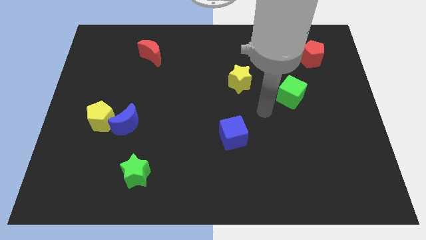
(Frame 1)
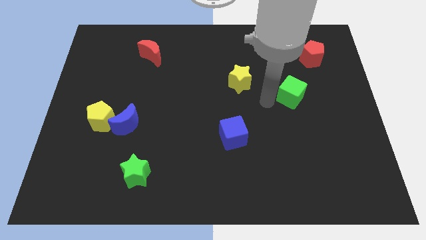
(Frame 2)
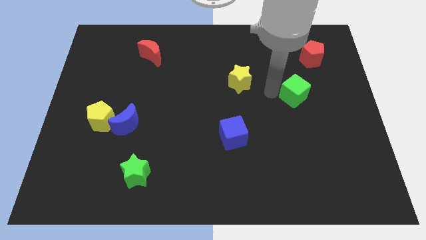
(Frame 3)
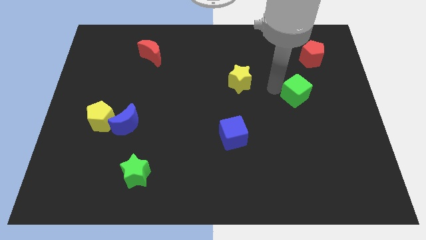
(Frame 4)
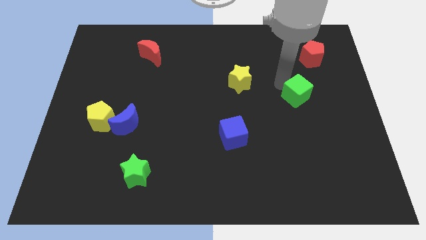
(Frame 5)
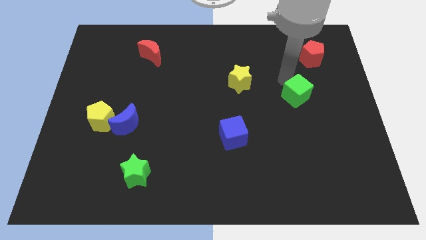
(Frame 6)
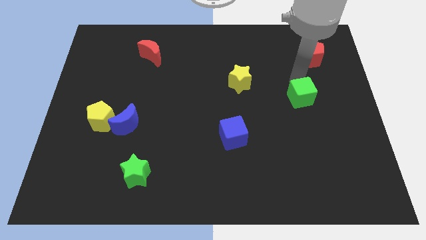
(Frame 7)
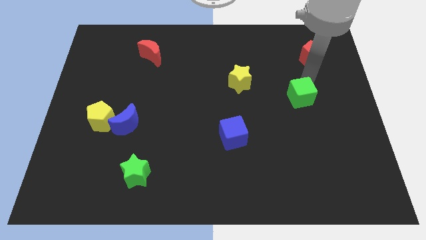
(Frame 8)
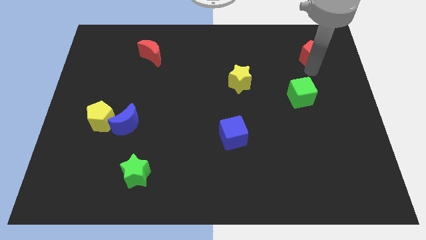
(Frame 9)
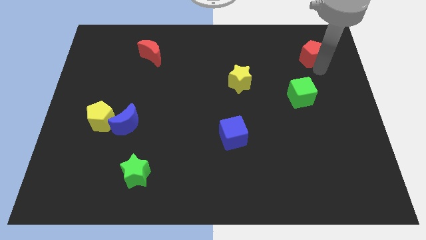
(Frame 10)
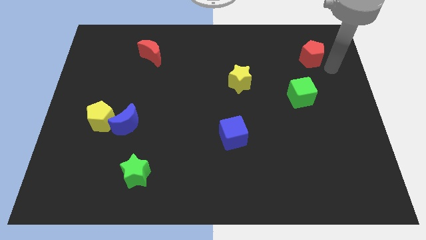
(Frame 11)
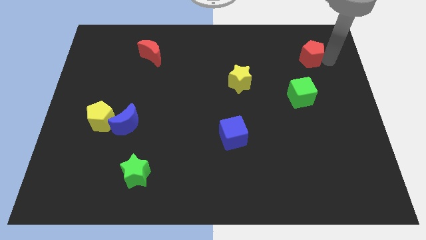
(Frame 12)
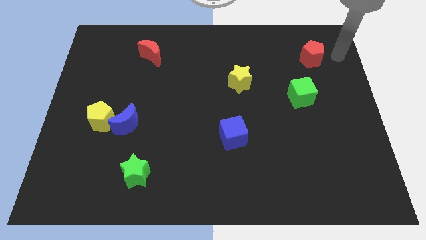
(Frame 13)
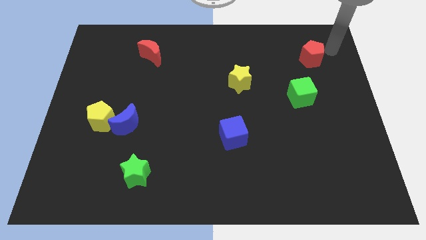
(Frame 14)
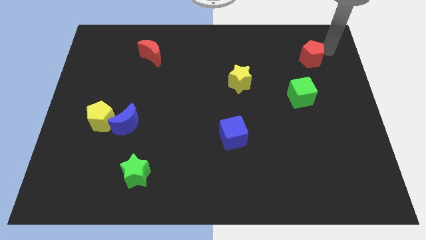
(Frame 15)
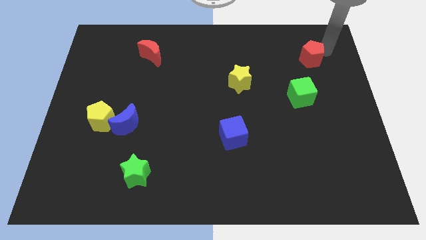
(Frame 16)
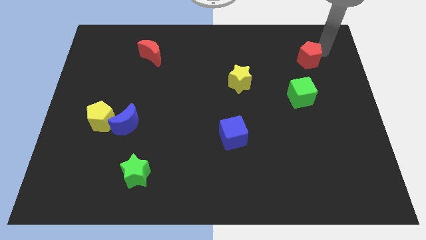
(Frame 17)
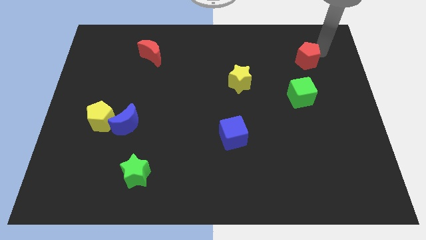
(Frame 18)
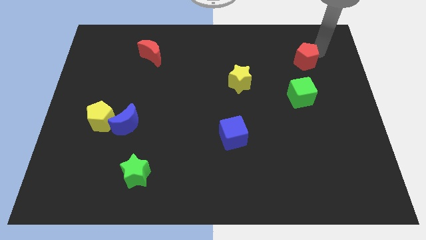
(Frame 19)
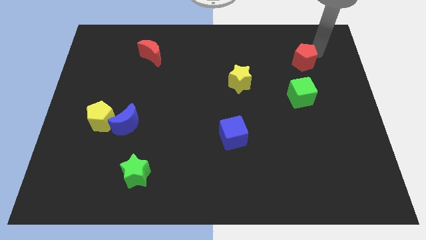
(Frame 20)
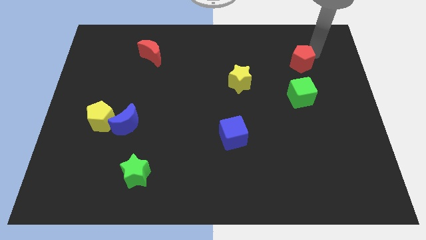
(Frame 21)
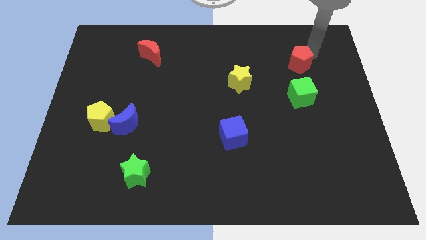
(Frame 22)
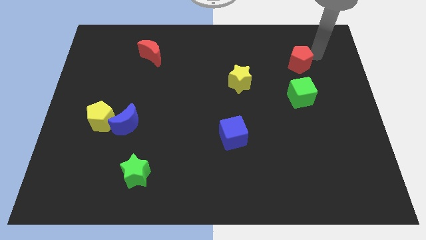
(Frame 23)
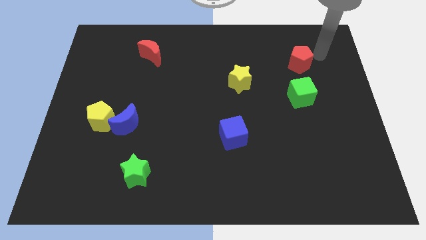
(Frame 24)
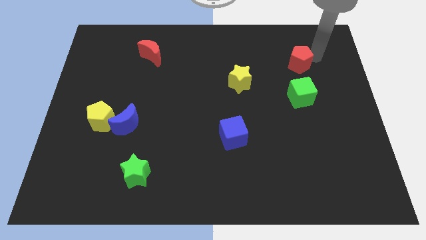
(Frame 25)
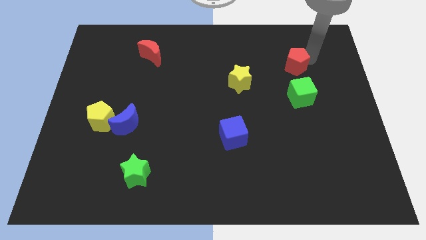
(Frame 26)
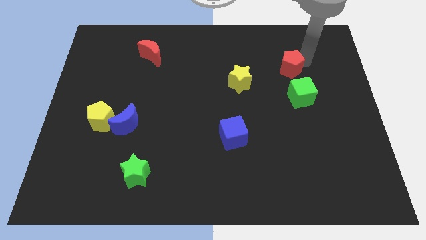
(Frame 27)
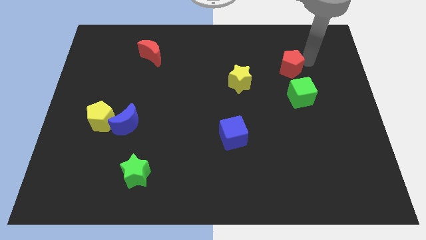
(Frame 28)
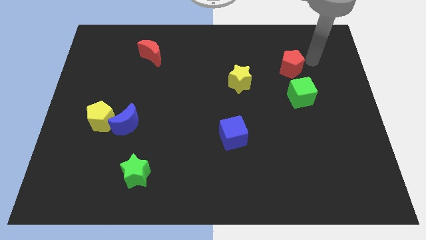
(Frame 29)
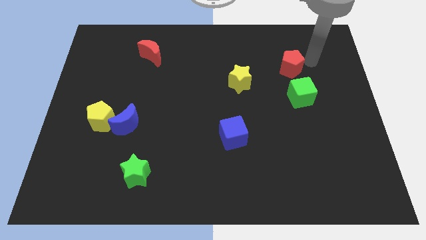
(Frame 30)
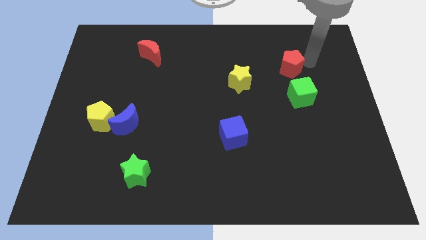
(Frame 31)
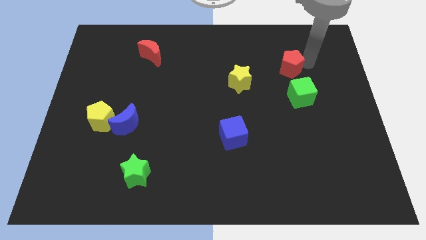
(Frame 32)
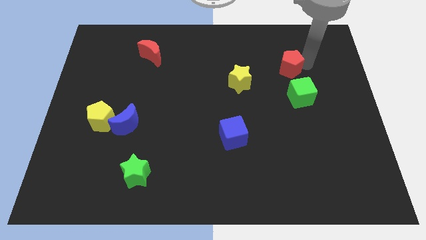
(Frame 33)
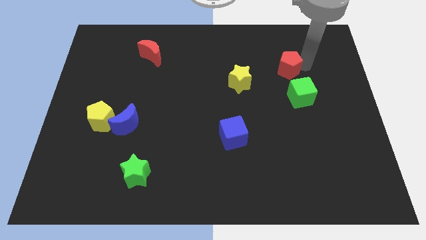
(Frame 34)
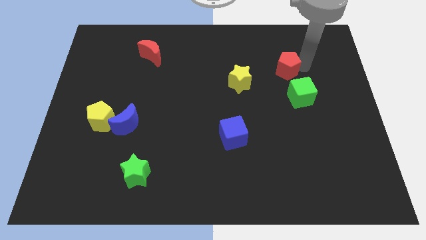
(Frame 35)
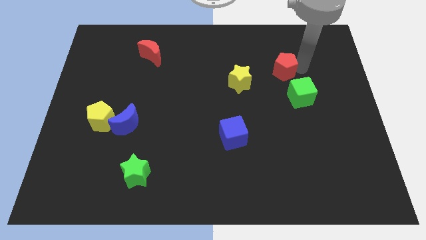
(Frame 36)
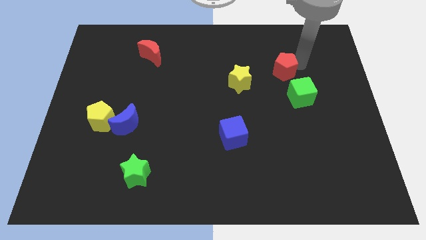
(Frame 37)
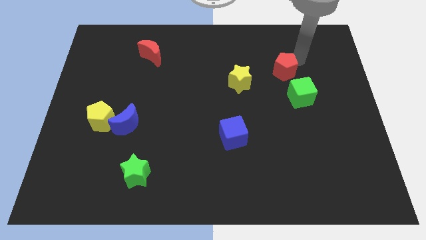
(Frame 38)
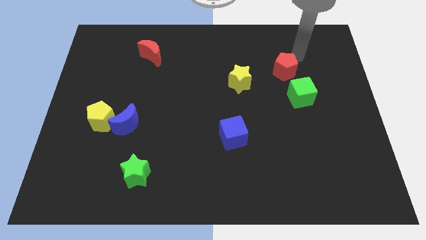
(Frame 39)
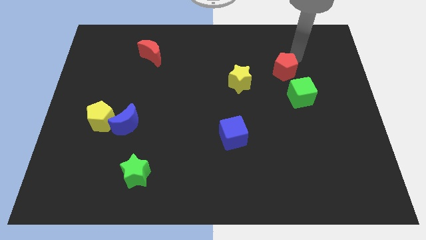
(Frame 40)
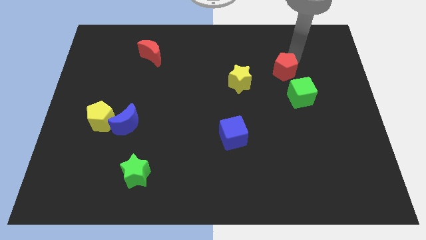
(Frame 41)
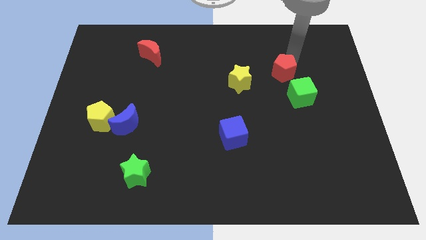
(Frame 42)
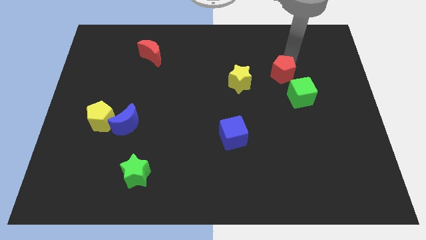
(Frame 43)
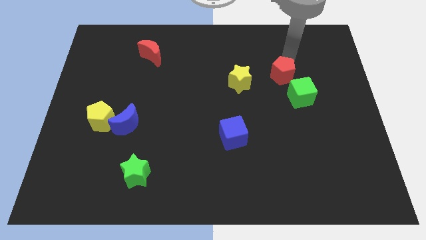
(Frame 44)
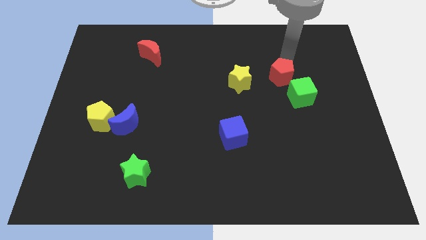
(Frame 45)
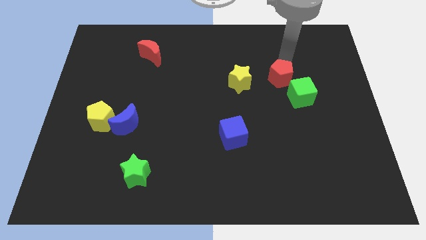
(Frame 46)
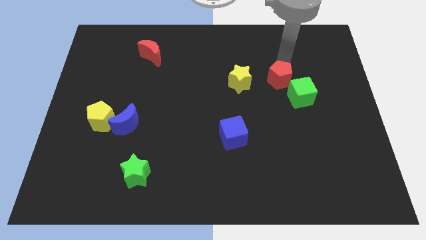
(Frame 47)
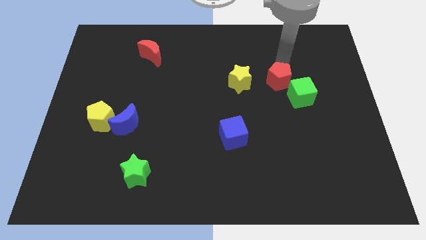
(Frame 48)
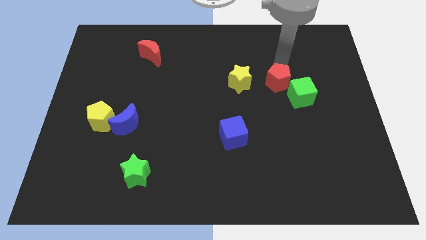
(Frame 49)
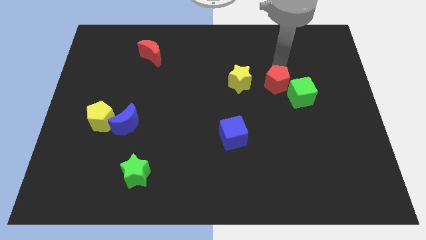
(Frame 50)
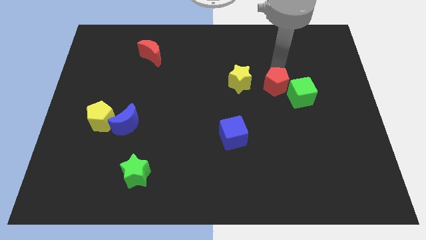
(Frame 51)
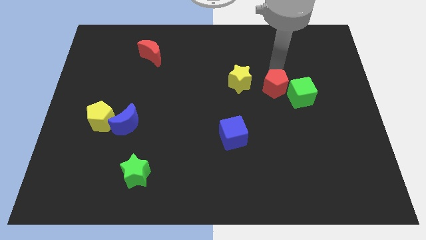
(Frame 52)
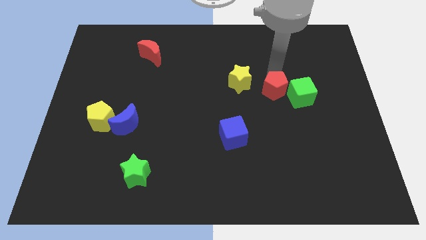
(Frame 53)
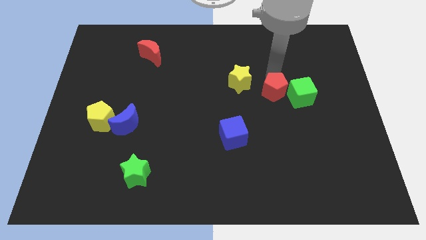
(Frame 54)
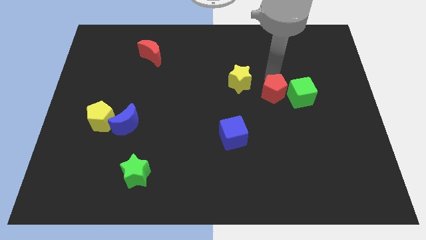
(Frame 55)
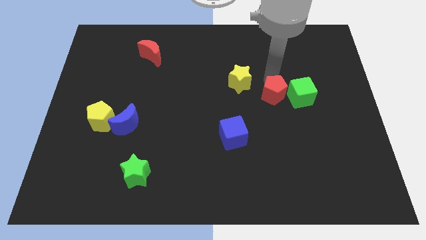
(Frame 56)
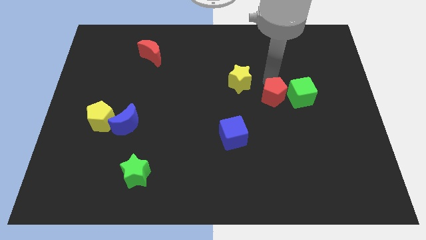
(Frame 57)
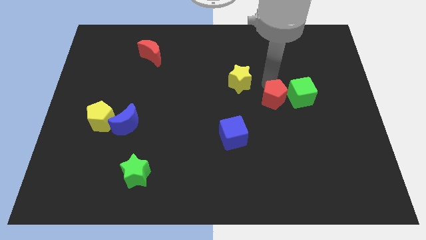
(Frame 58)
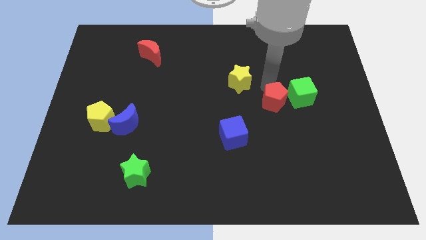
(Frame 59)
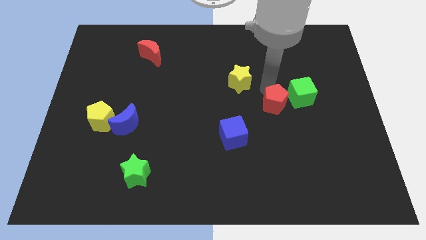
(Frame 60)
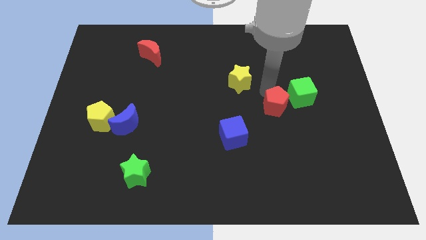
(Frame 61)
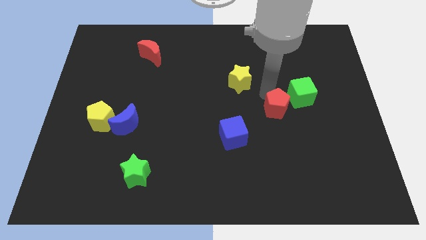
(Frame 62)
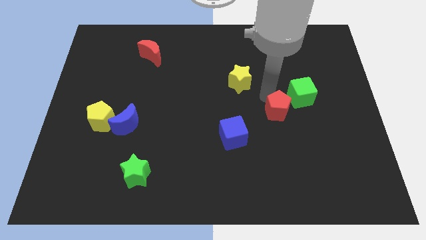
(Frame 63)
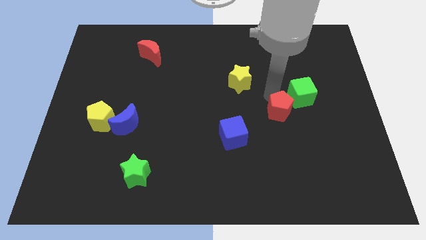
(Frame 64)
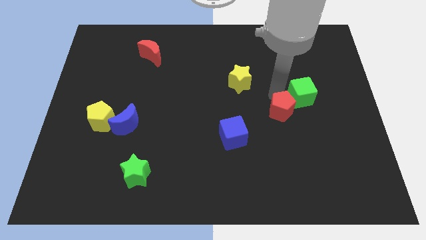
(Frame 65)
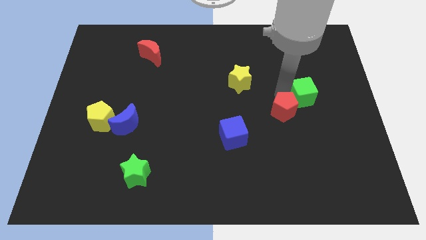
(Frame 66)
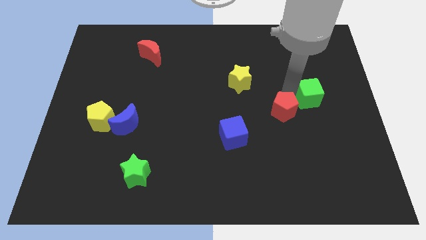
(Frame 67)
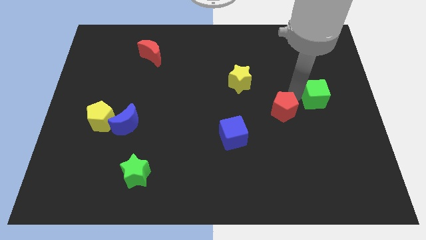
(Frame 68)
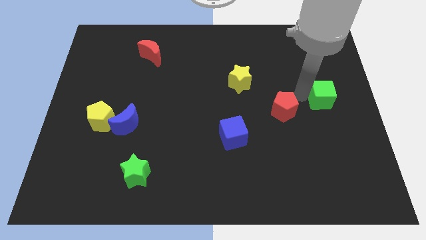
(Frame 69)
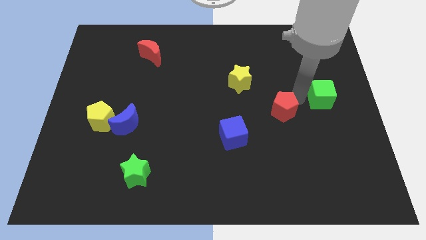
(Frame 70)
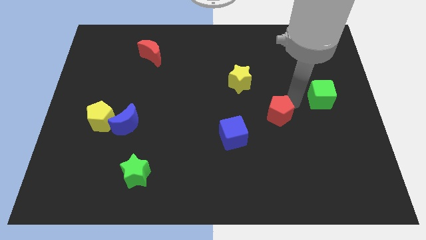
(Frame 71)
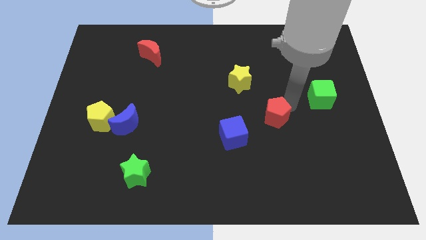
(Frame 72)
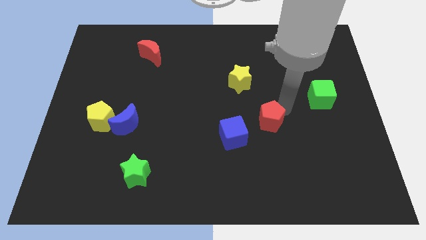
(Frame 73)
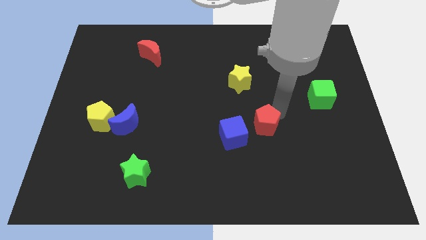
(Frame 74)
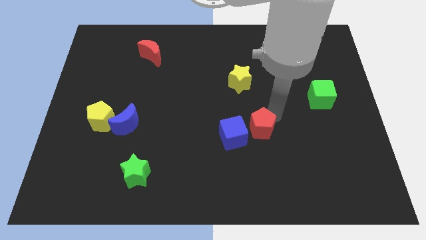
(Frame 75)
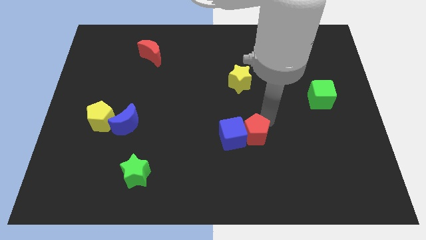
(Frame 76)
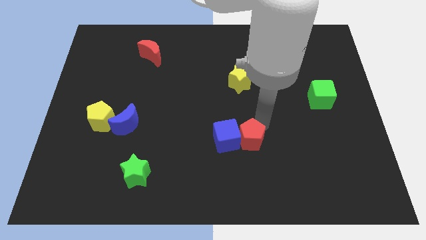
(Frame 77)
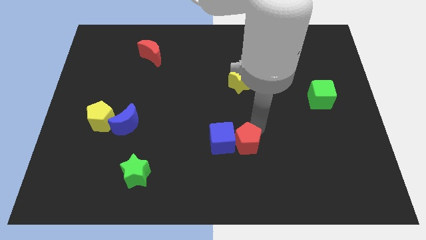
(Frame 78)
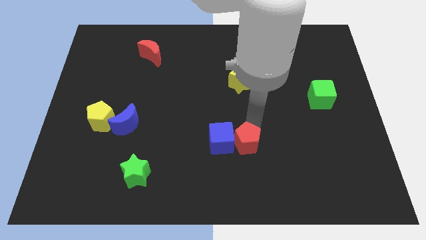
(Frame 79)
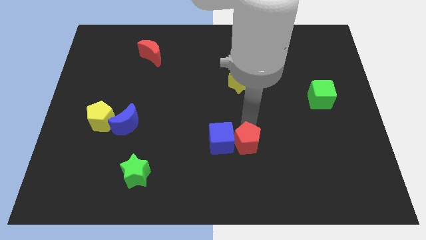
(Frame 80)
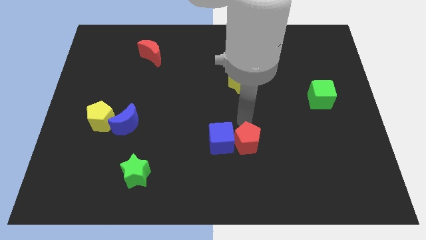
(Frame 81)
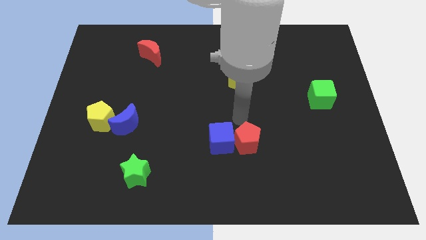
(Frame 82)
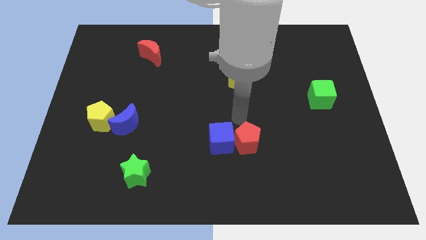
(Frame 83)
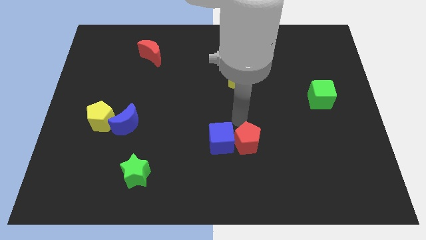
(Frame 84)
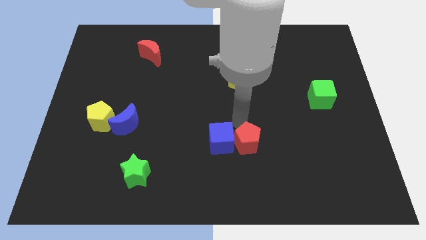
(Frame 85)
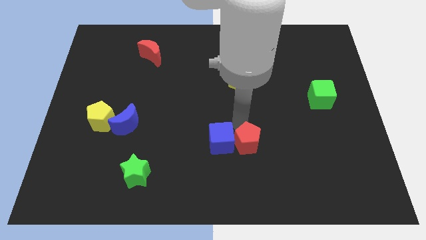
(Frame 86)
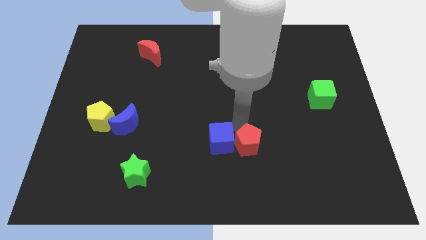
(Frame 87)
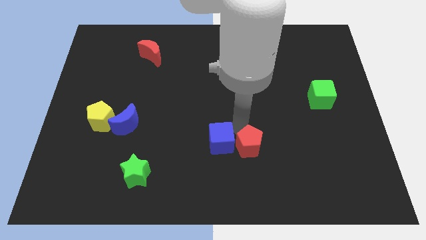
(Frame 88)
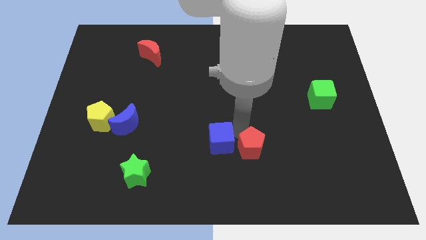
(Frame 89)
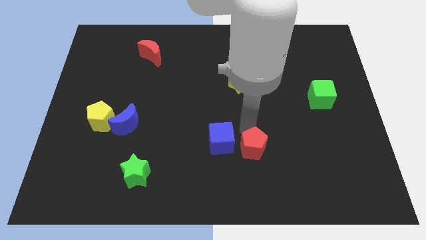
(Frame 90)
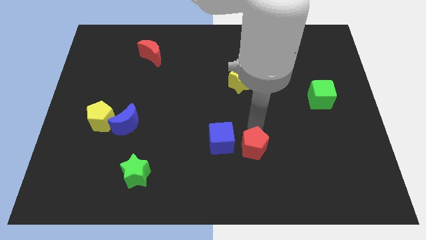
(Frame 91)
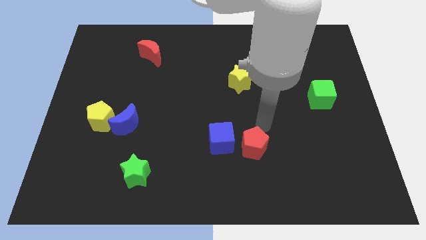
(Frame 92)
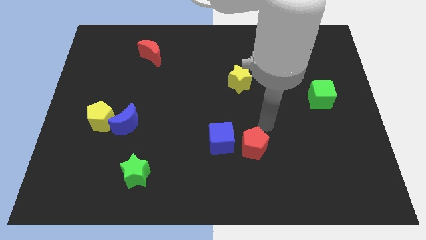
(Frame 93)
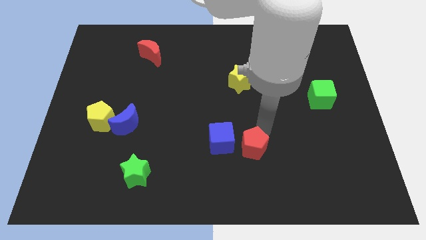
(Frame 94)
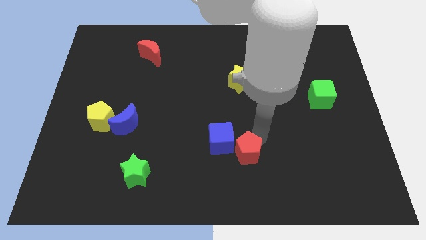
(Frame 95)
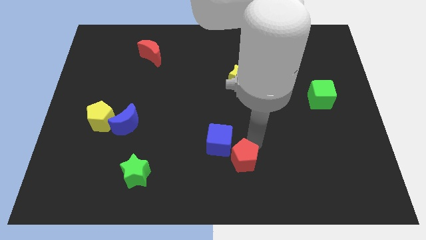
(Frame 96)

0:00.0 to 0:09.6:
move the red pentagon to the bottom
